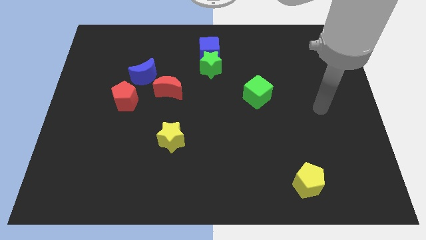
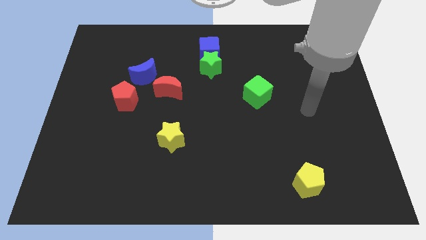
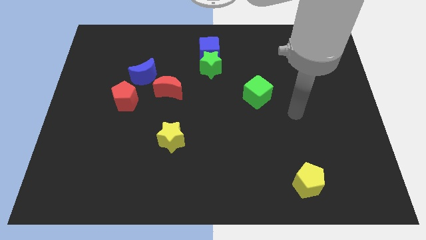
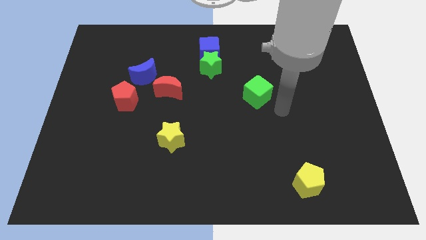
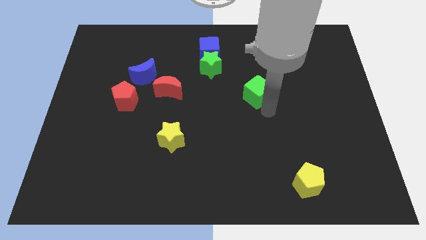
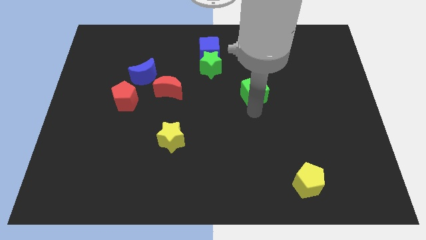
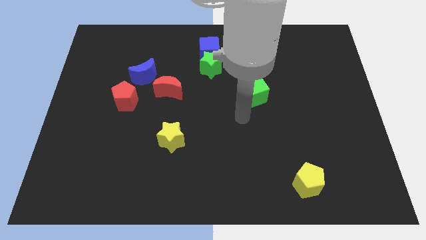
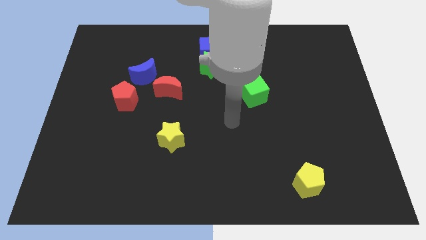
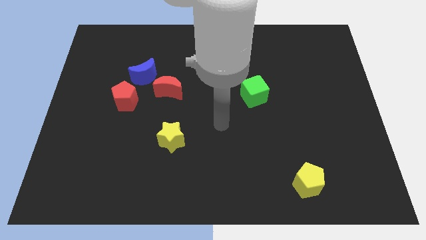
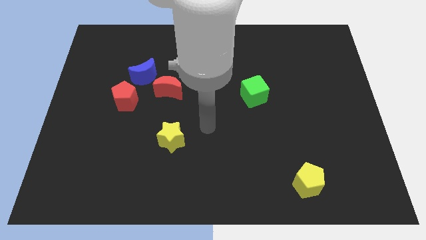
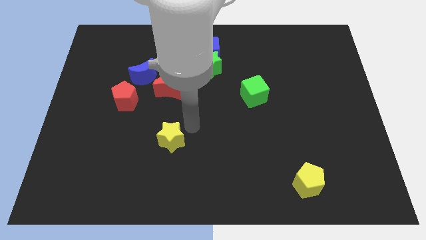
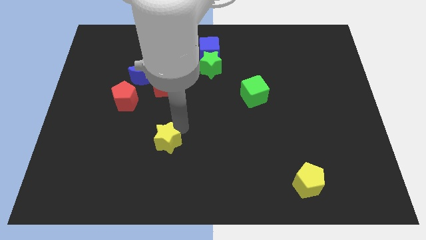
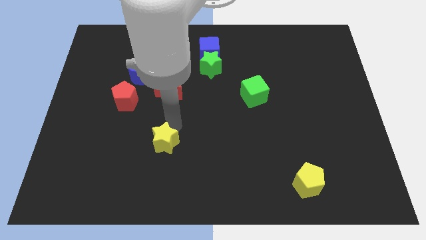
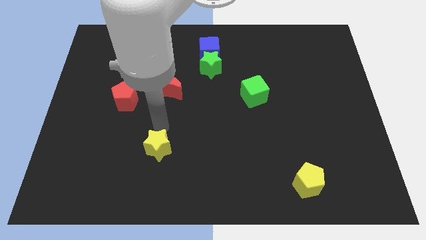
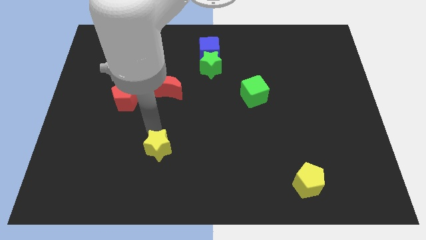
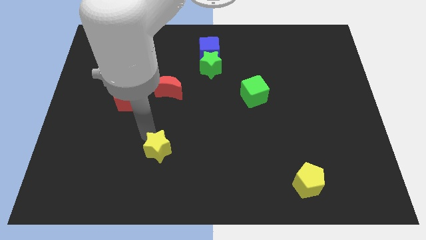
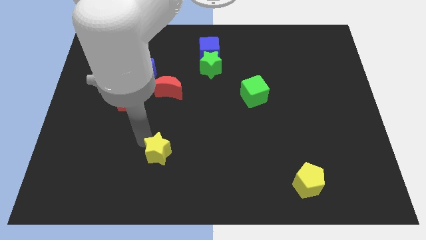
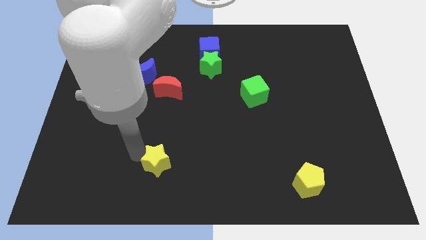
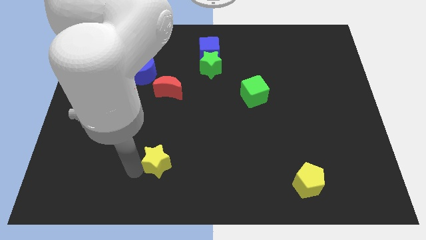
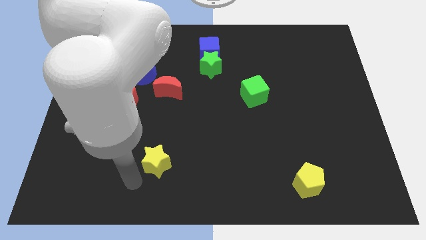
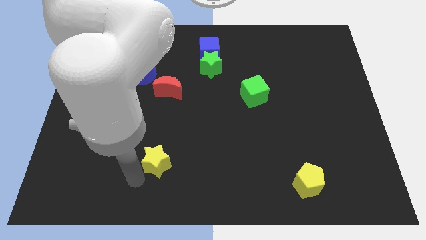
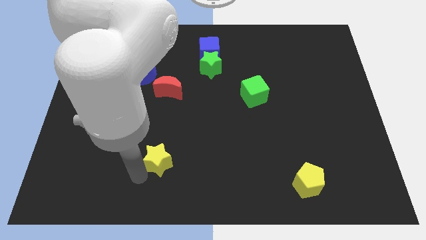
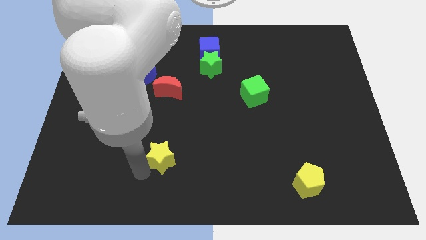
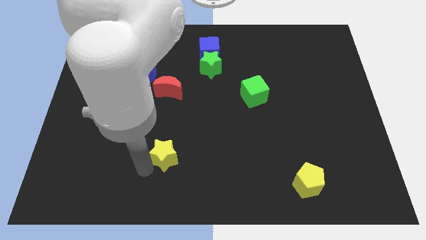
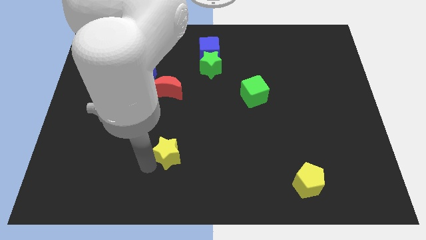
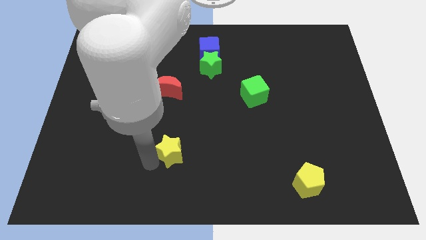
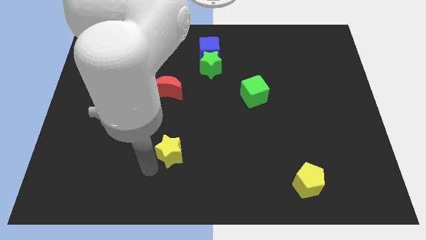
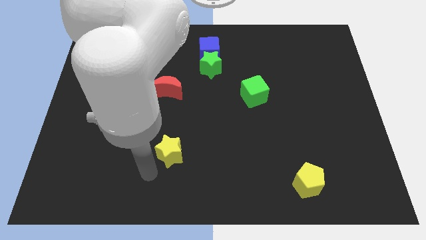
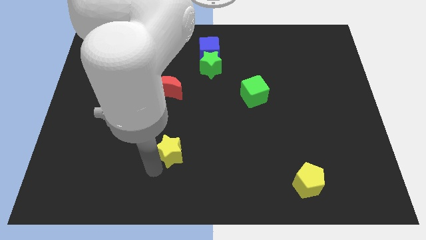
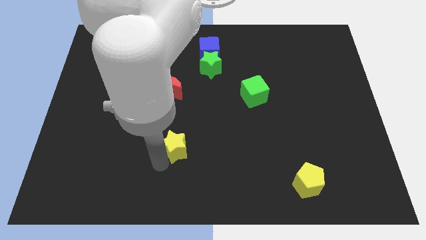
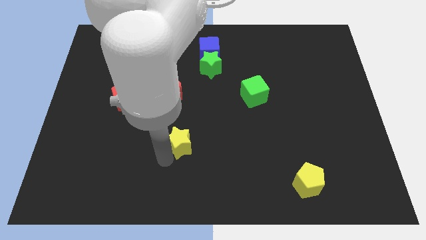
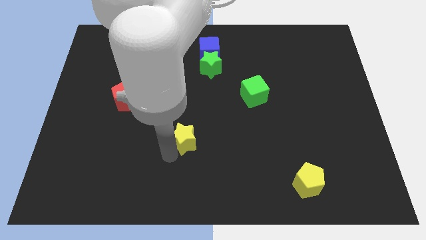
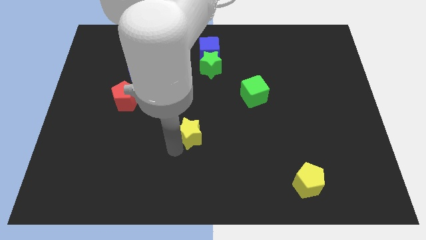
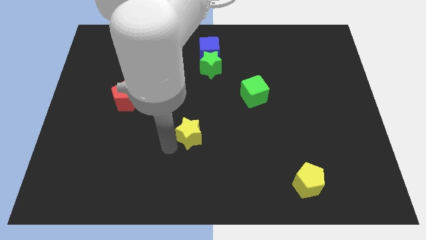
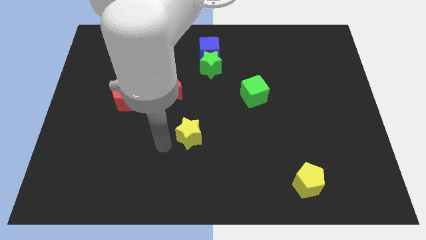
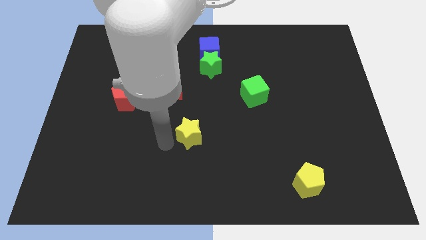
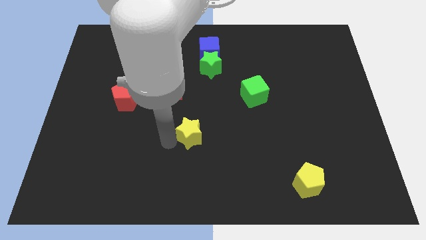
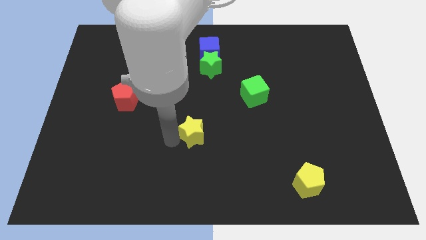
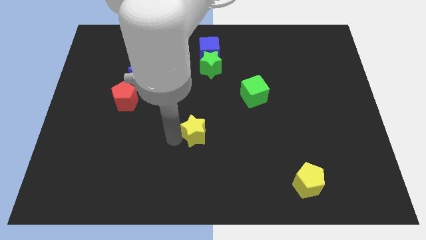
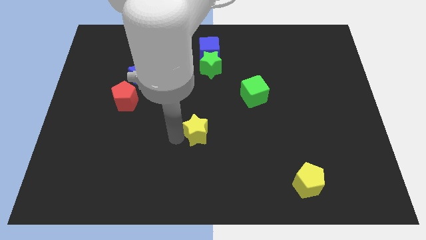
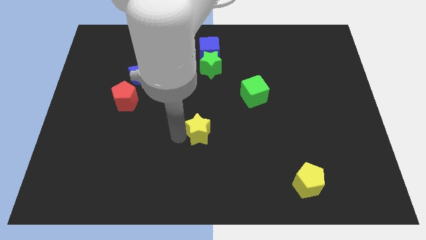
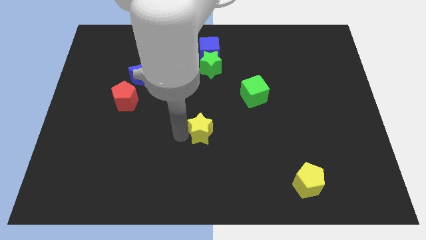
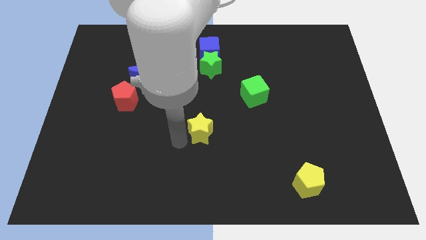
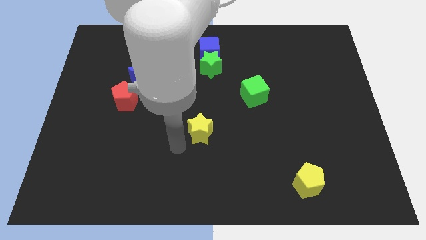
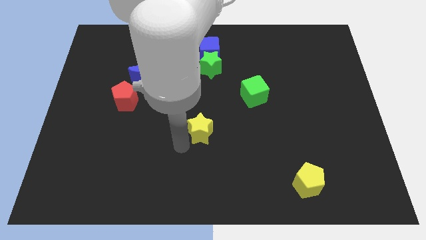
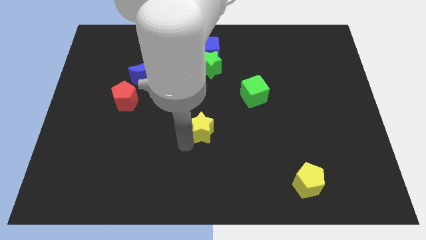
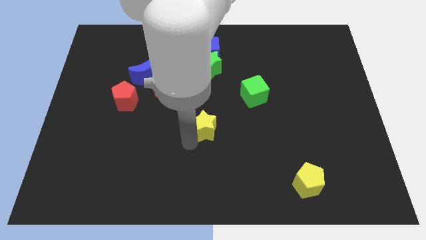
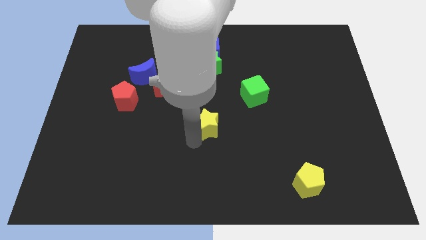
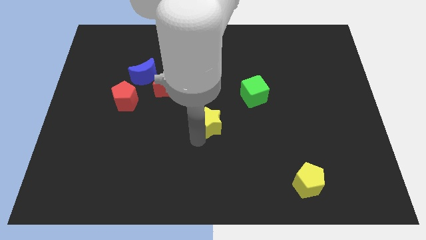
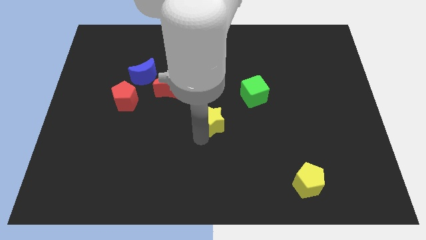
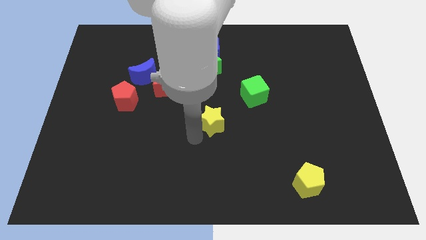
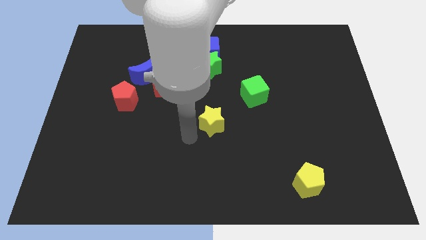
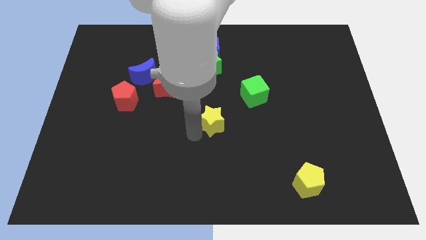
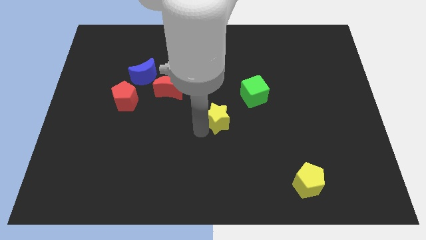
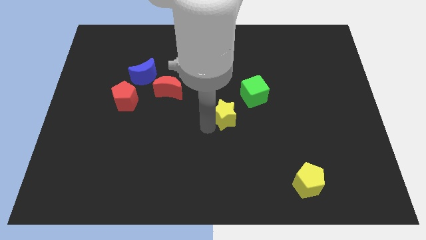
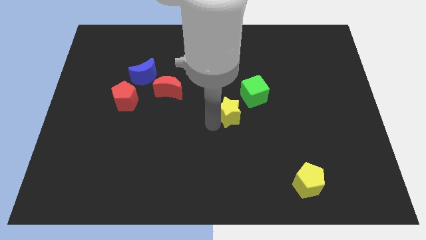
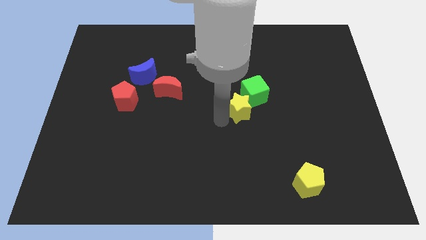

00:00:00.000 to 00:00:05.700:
move the yellow star towards the green cube

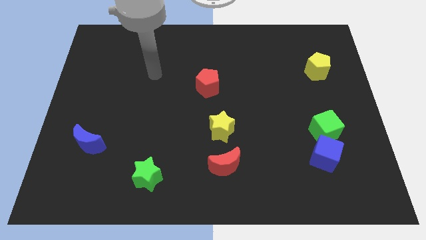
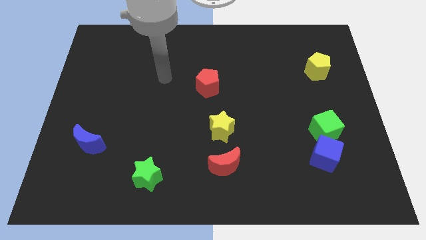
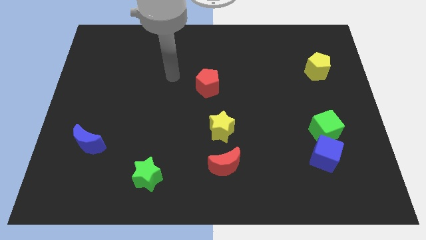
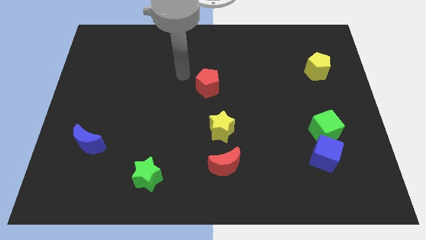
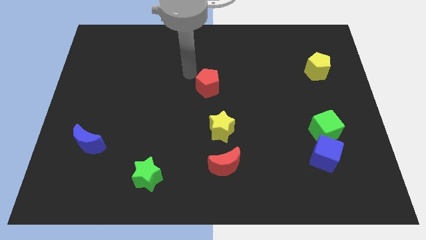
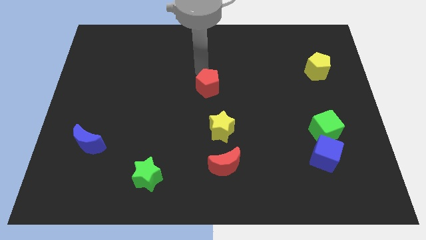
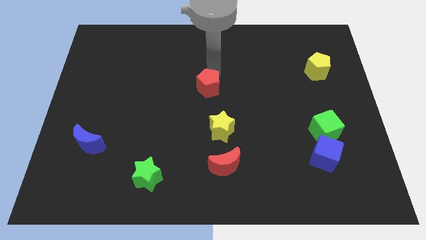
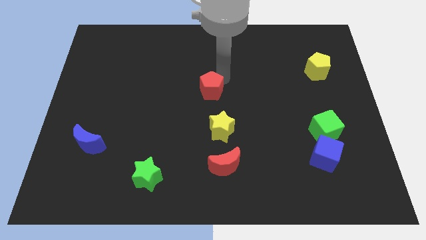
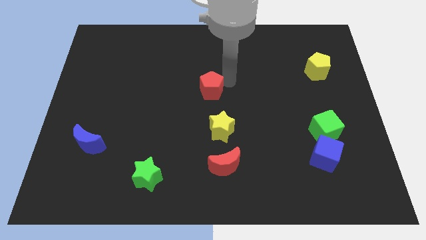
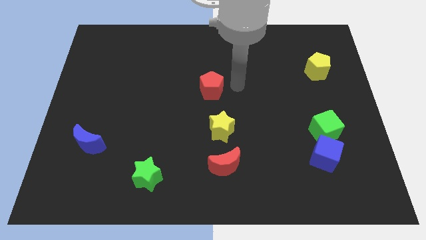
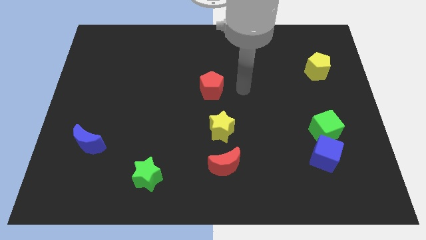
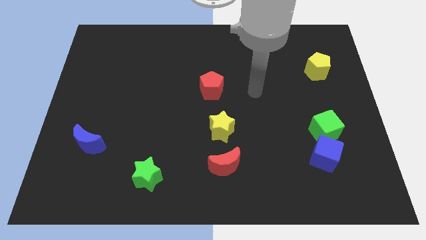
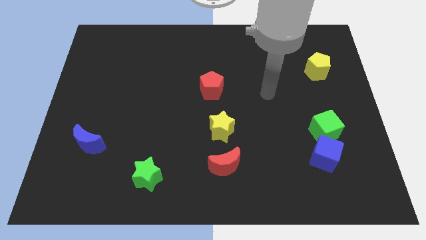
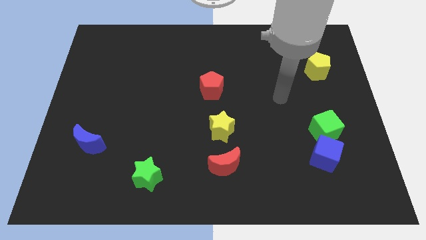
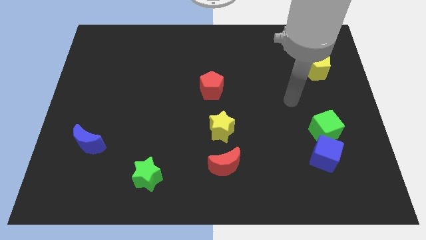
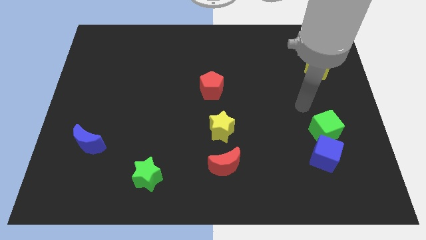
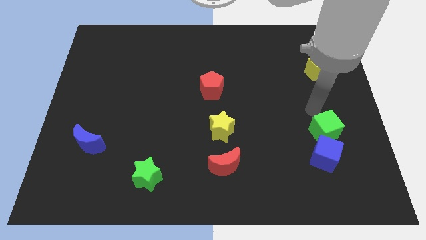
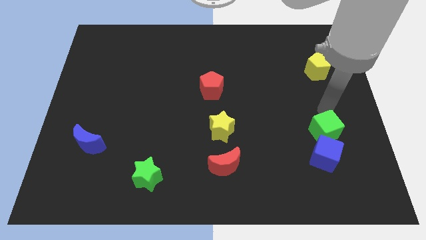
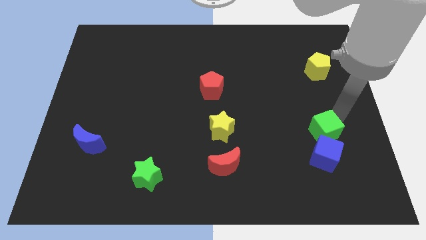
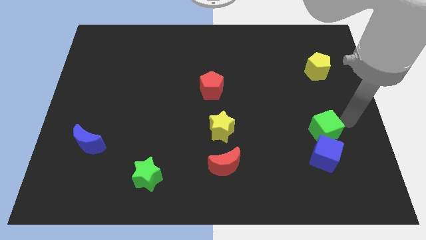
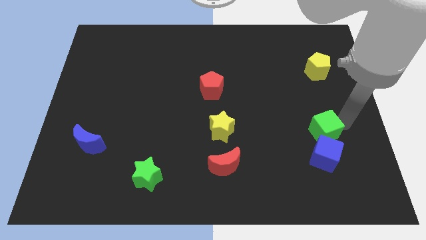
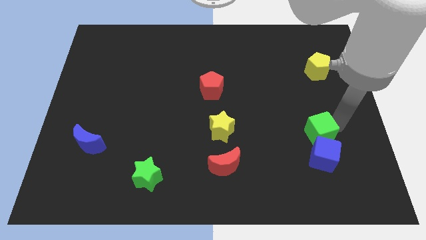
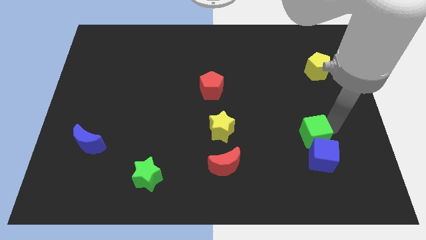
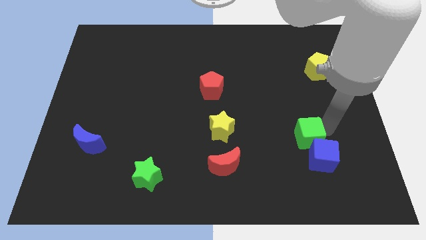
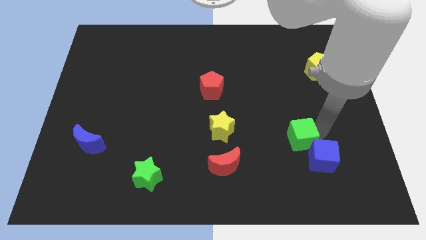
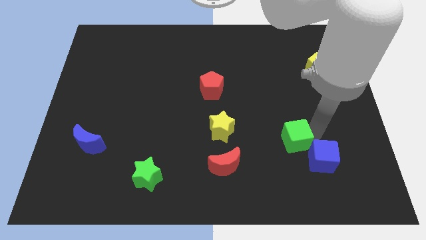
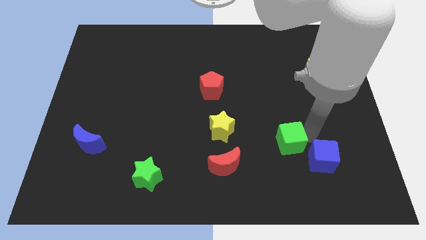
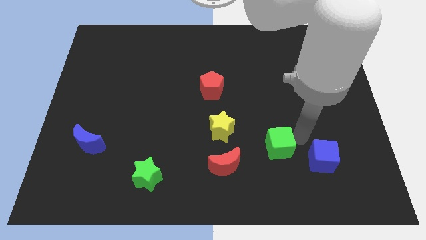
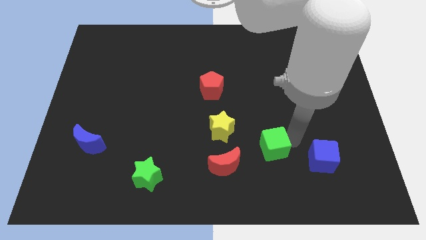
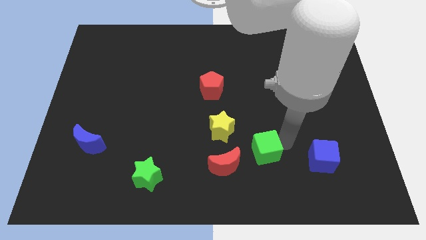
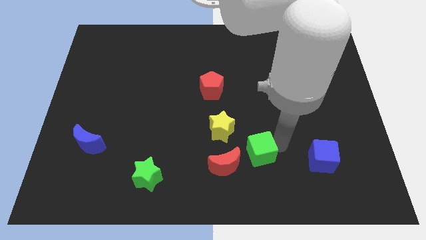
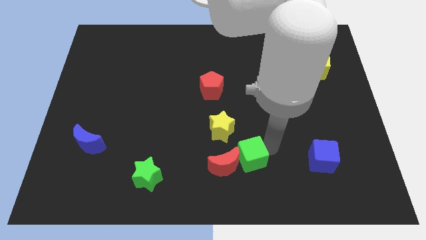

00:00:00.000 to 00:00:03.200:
move the green cube to the red moon
